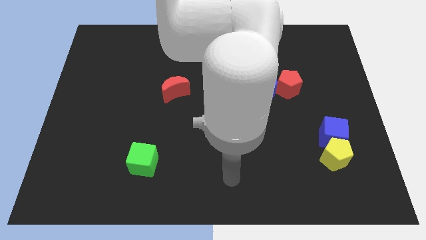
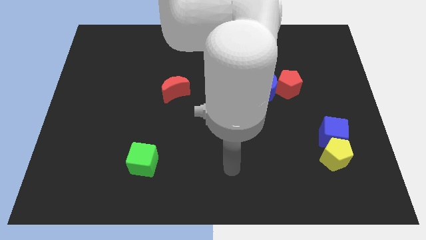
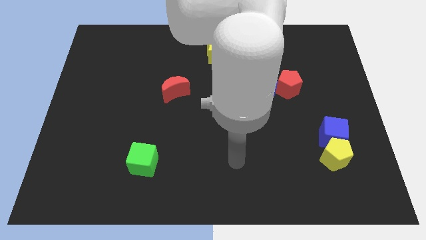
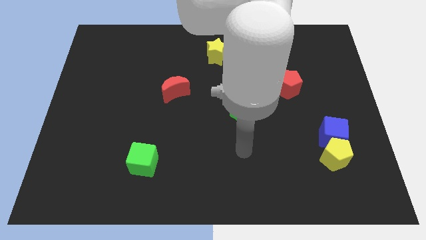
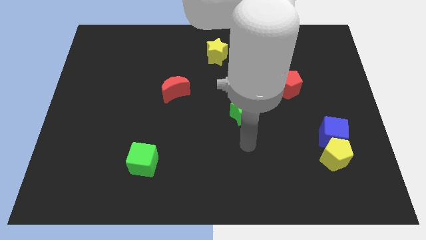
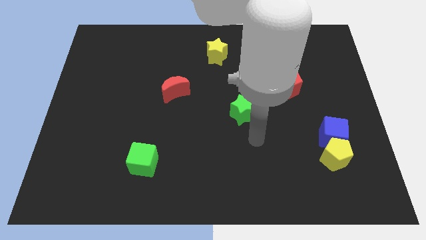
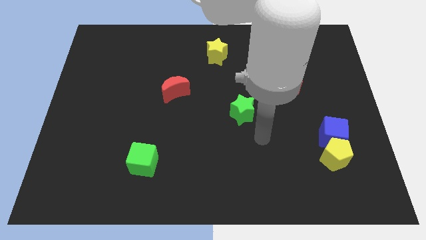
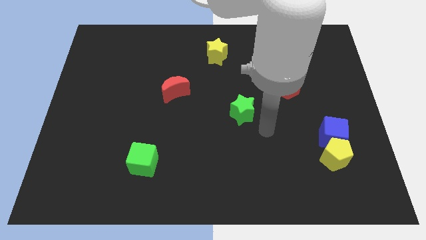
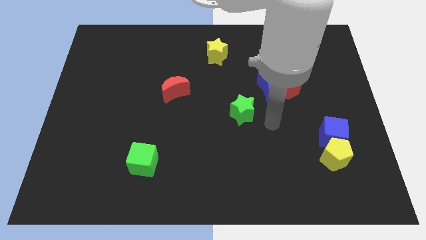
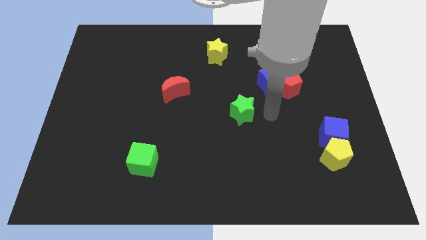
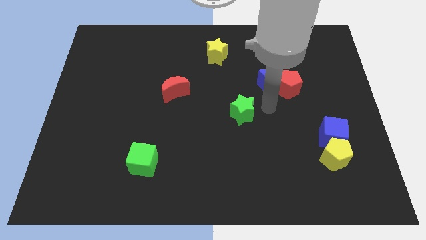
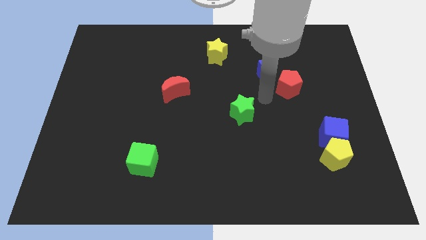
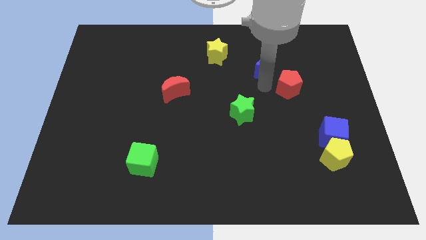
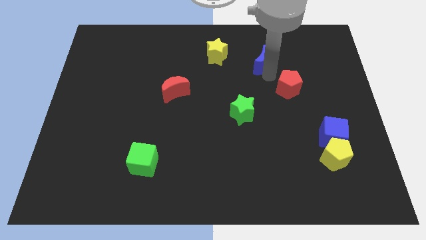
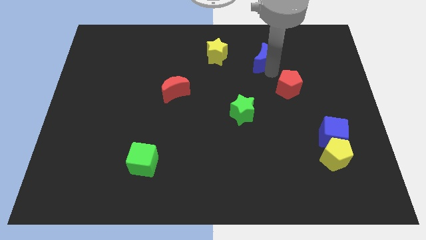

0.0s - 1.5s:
separate the red pentagon from the blue moon

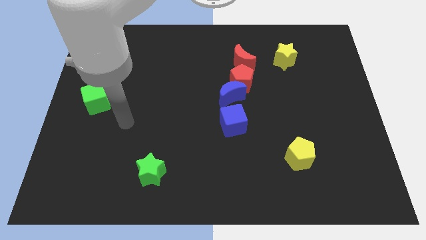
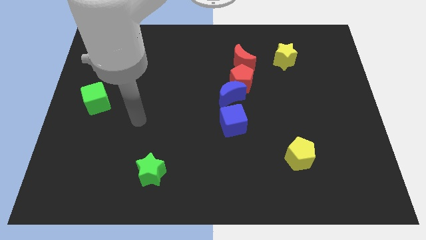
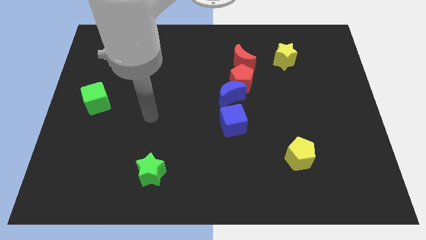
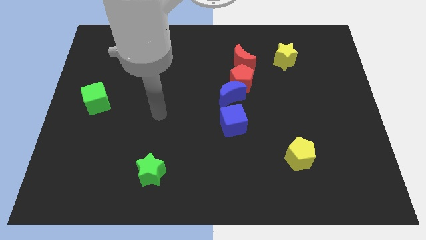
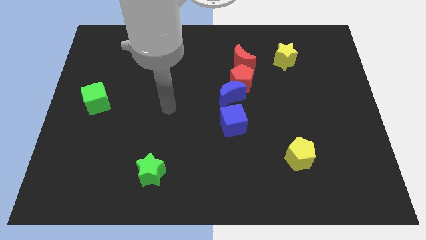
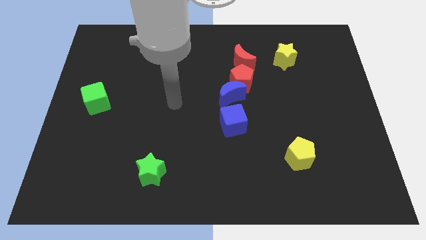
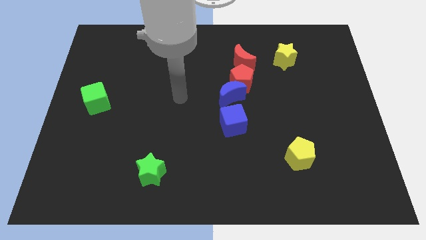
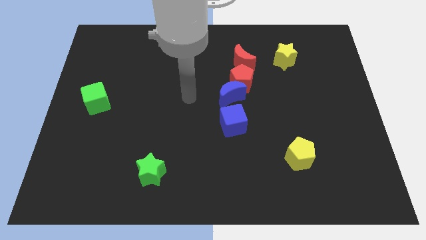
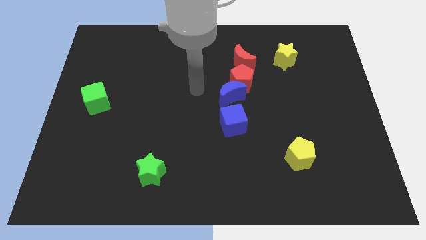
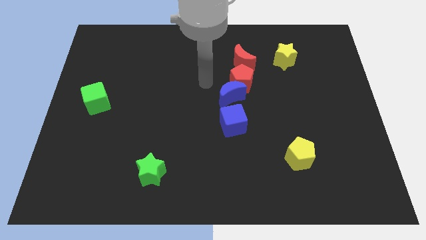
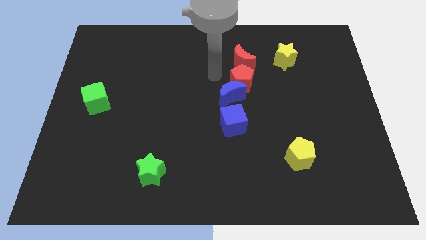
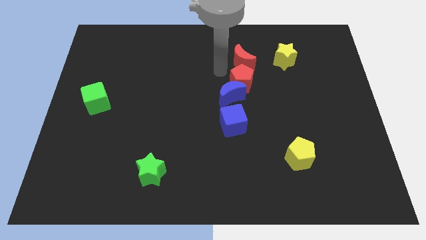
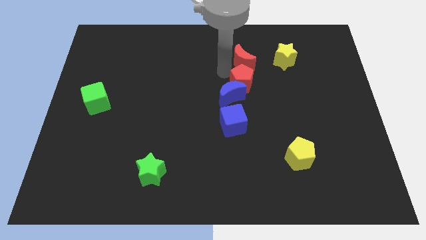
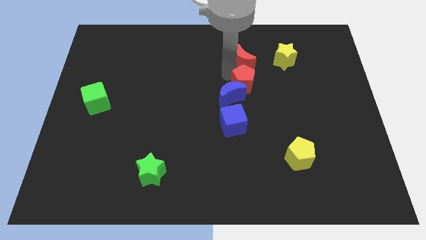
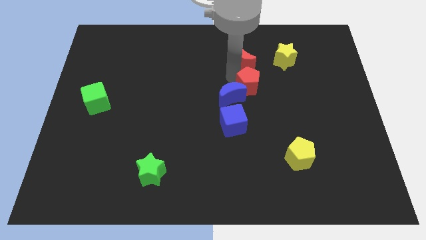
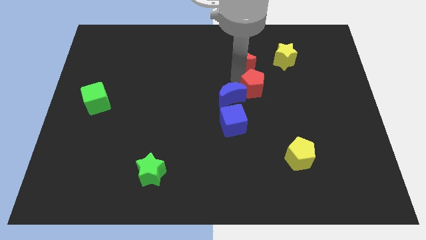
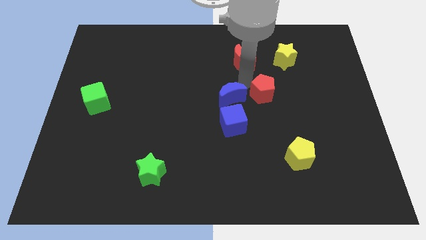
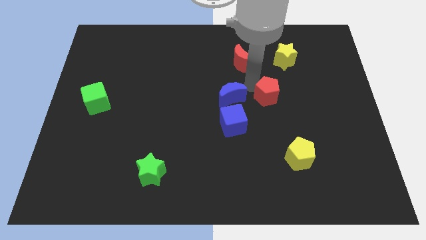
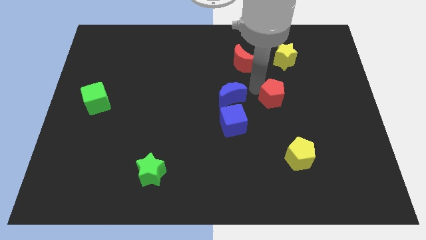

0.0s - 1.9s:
move the red pentagon away from the blue moon and red moon

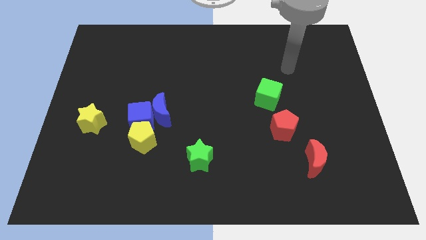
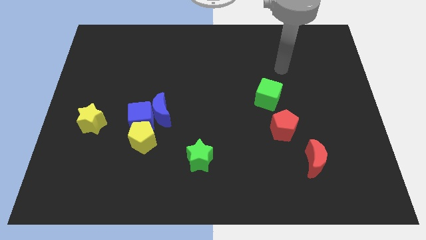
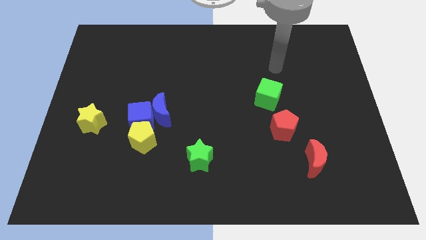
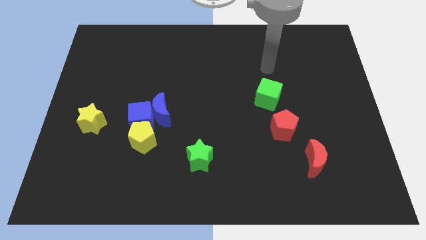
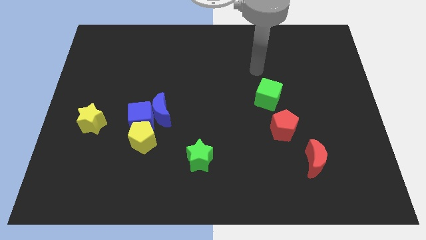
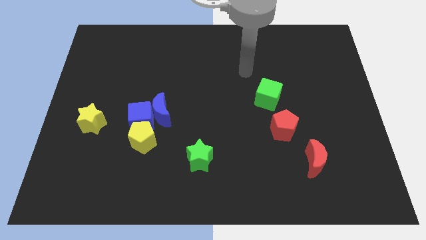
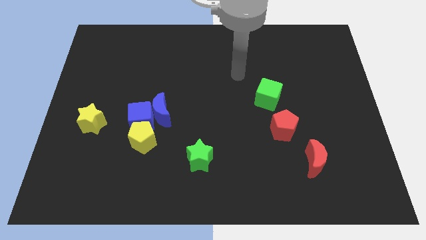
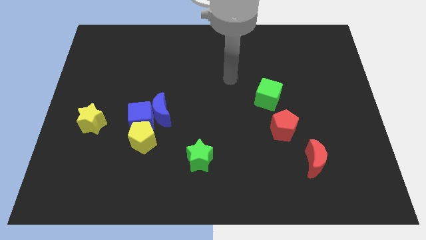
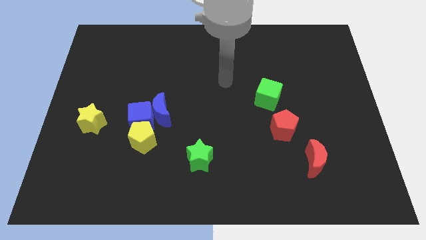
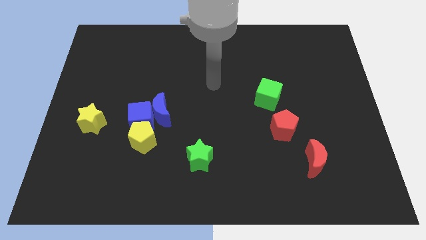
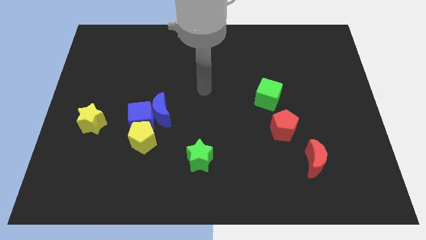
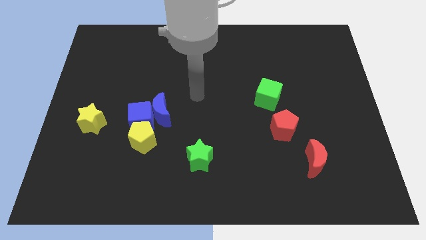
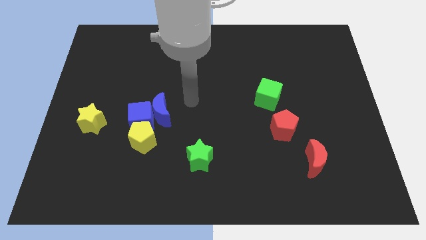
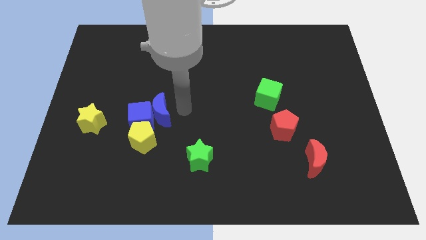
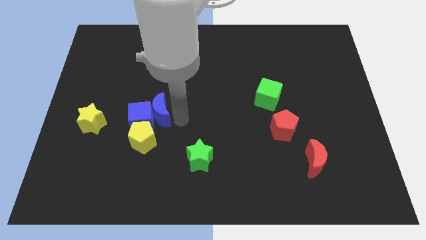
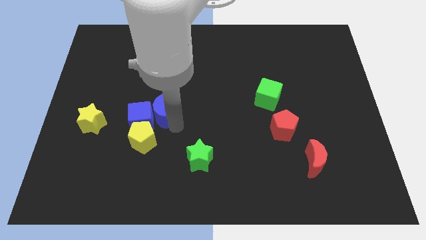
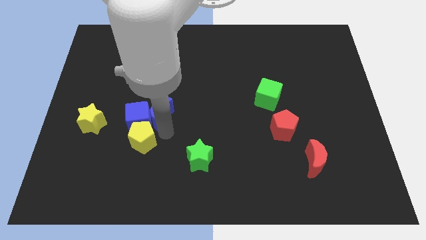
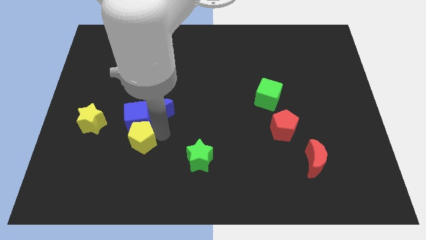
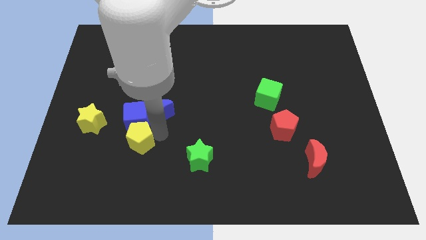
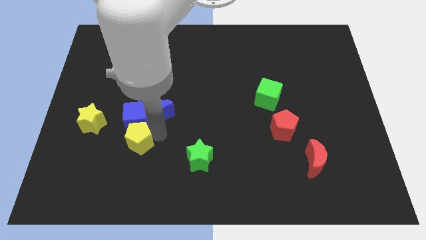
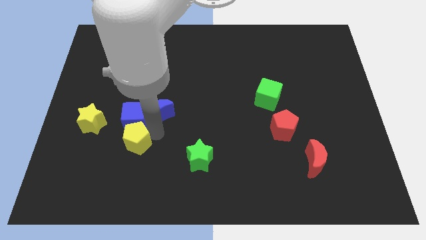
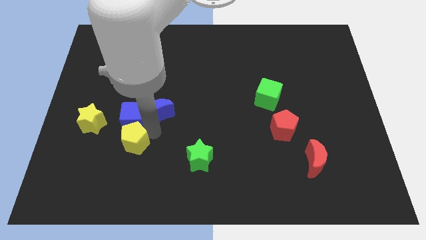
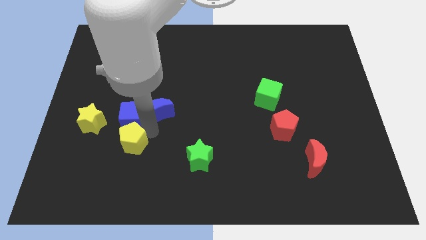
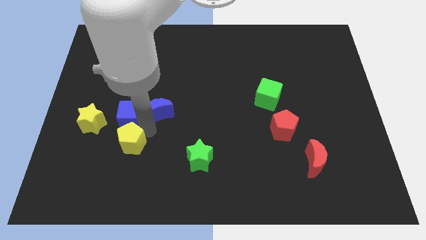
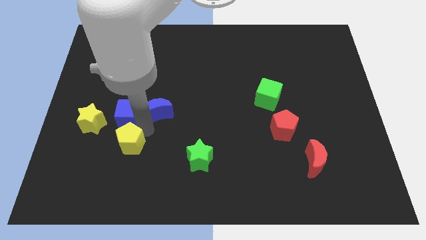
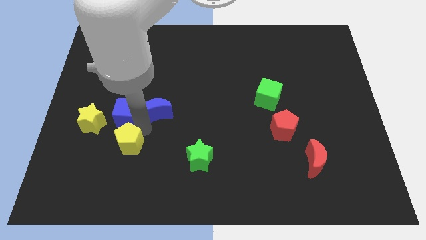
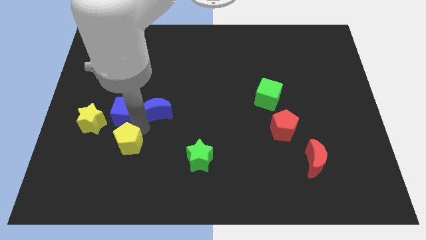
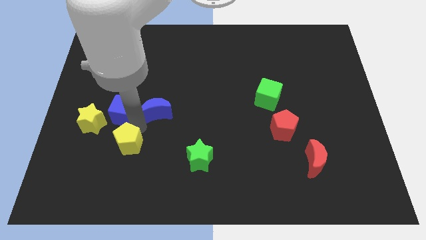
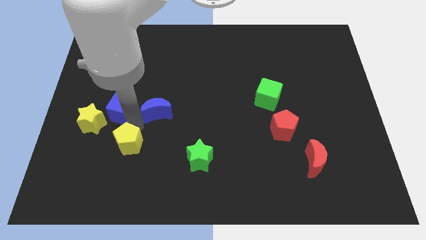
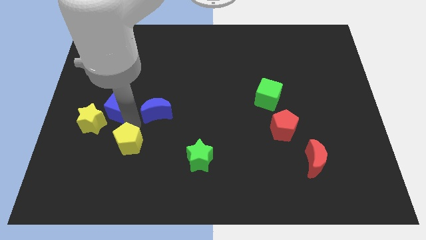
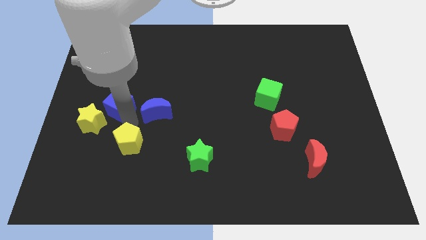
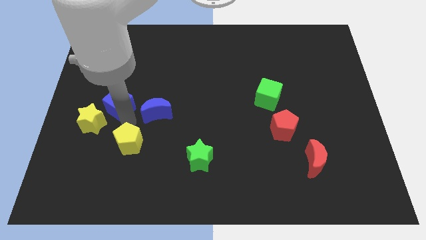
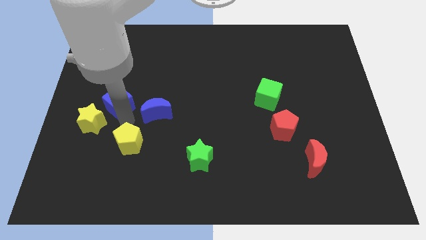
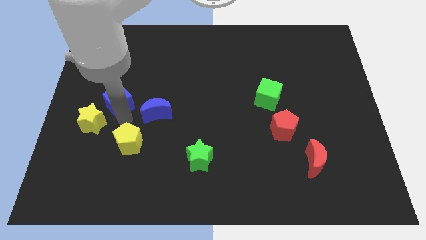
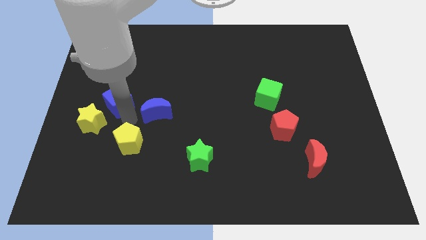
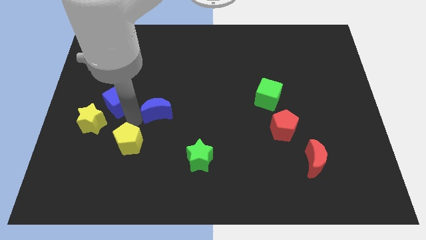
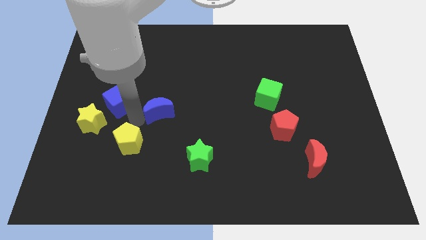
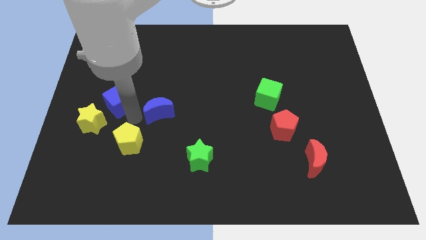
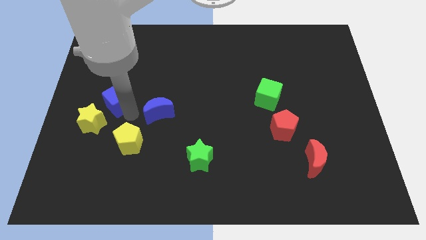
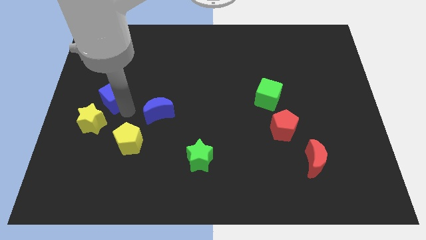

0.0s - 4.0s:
separate the blue cube from the blue moon and yellow pentagon

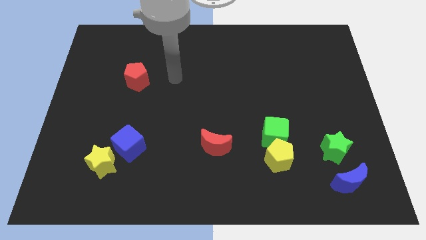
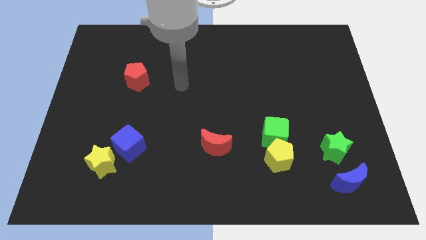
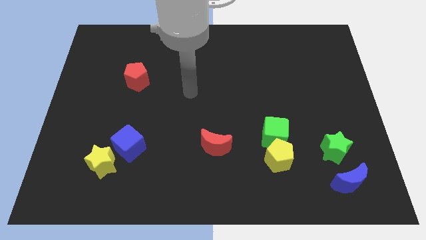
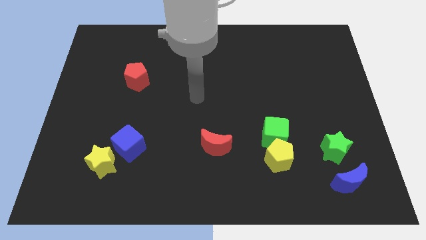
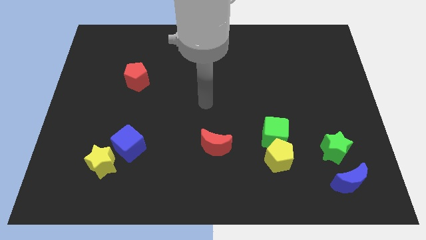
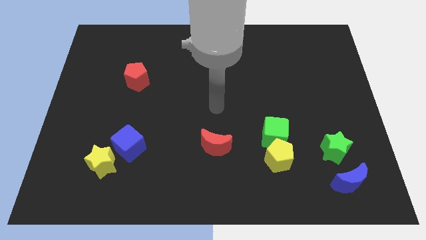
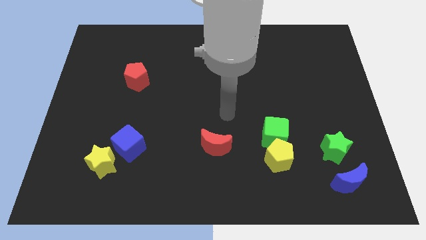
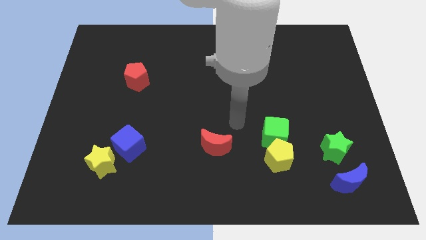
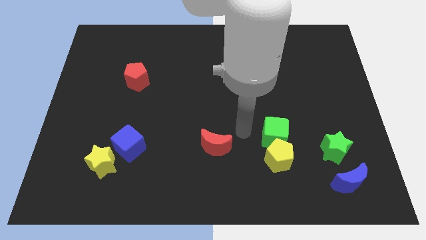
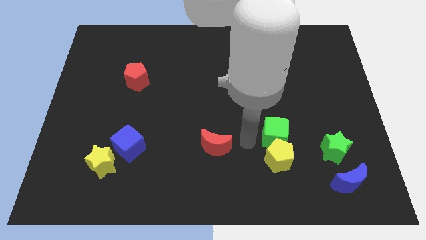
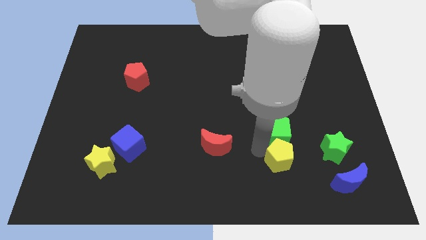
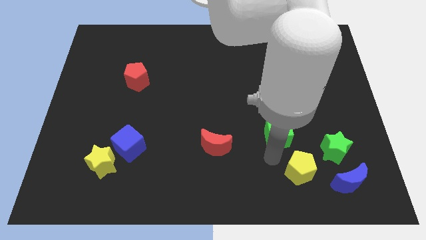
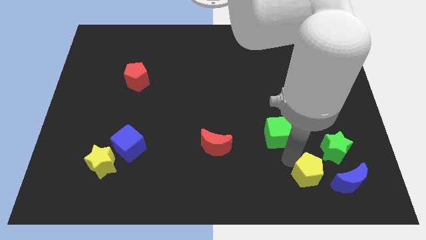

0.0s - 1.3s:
separate the green cube from the yellow pentagon

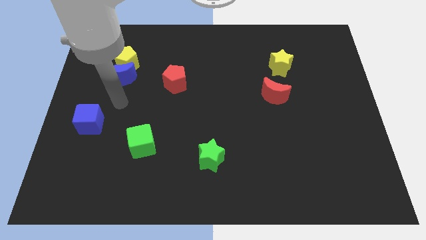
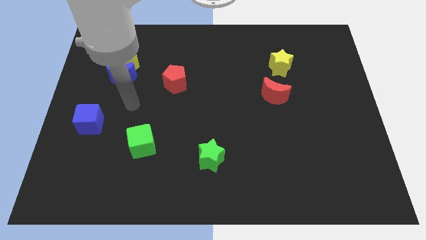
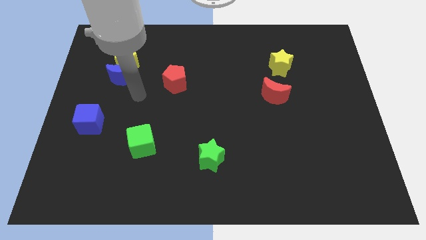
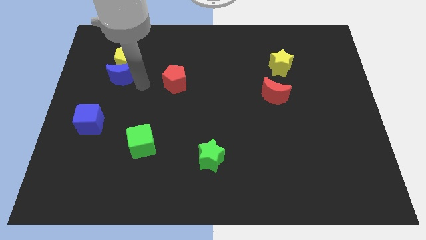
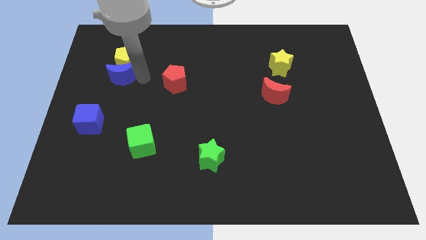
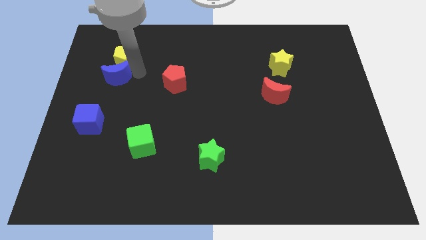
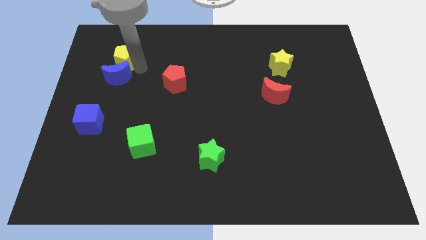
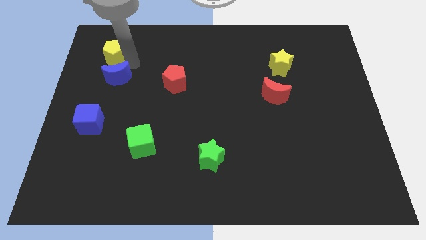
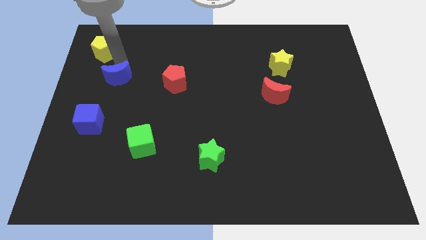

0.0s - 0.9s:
move the blue moon away from the yellow pentagon
